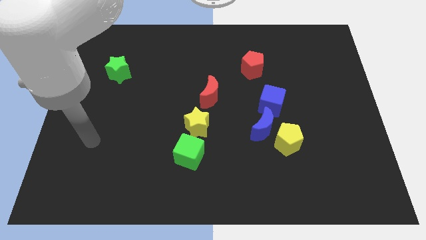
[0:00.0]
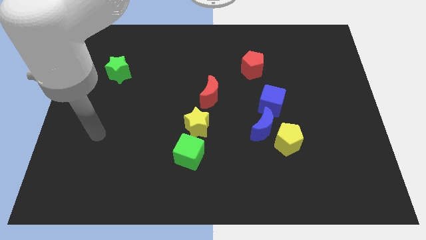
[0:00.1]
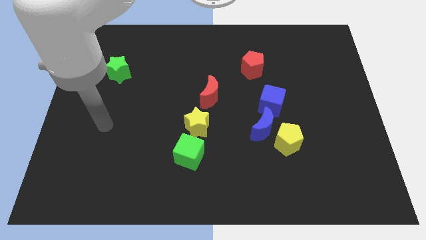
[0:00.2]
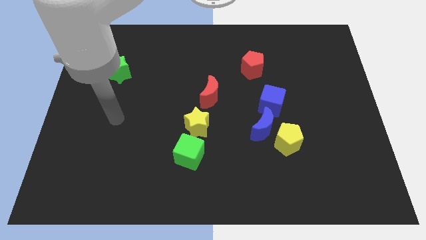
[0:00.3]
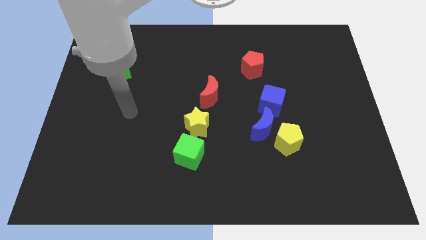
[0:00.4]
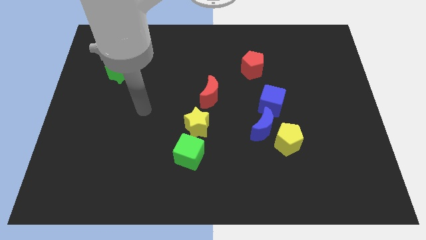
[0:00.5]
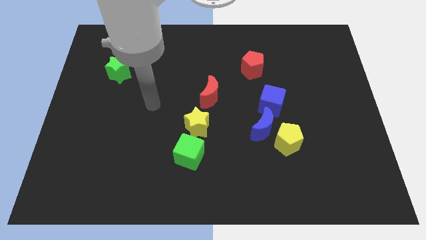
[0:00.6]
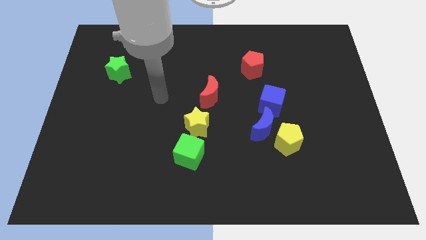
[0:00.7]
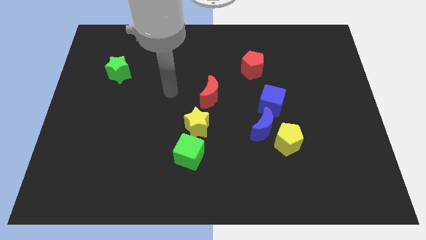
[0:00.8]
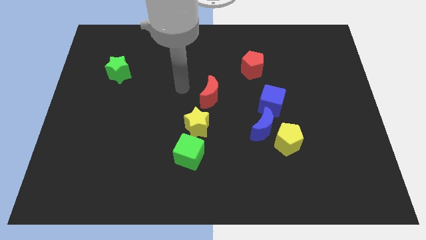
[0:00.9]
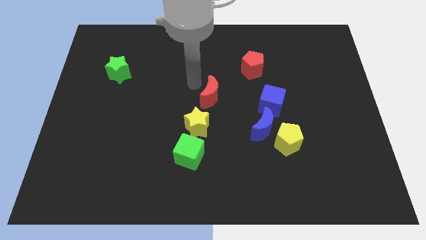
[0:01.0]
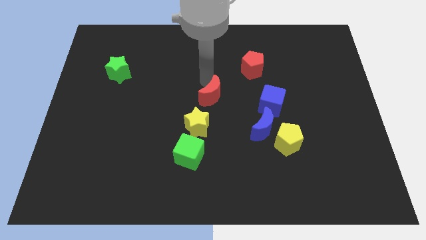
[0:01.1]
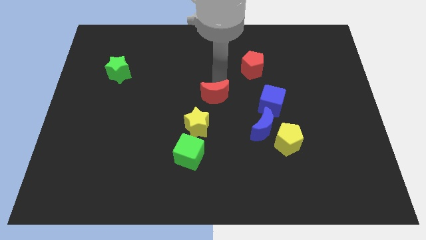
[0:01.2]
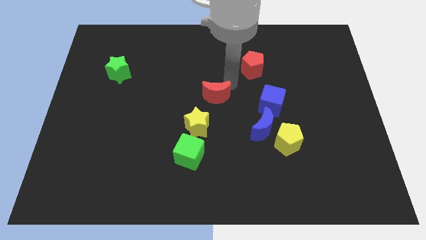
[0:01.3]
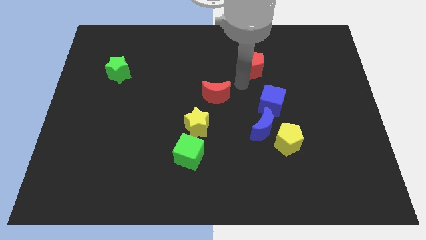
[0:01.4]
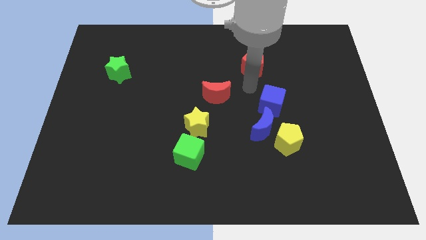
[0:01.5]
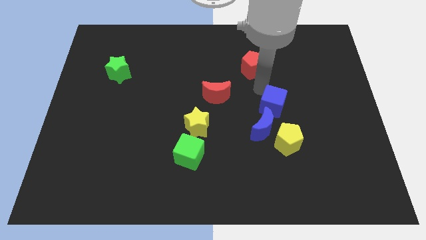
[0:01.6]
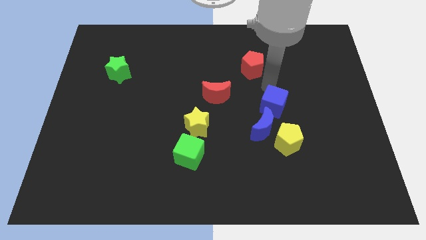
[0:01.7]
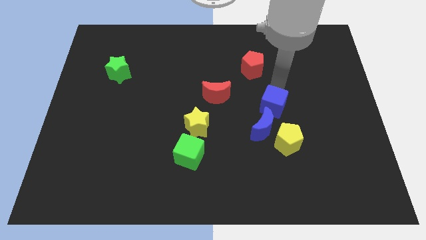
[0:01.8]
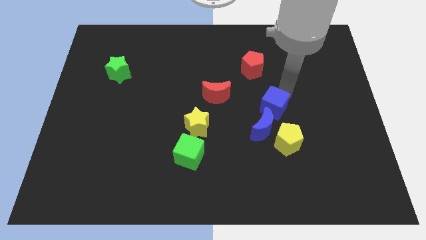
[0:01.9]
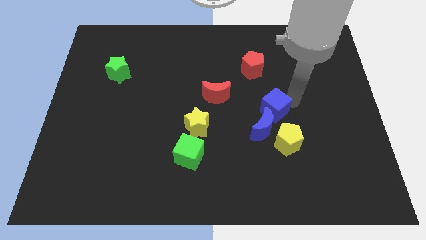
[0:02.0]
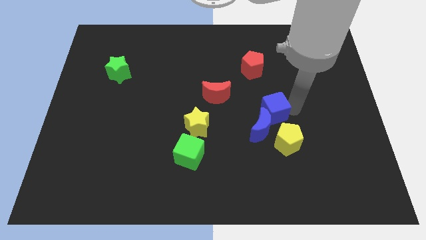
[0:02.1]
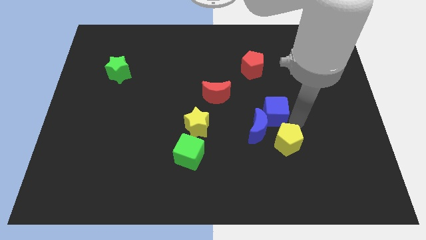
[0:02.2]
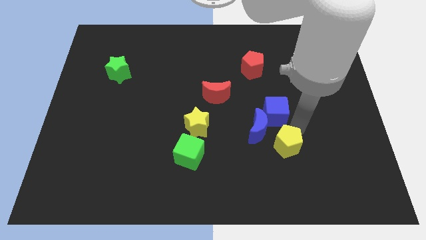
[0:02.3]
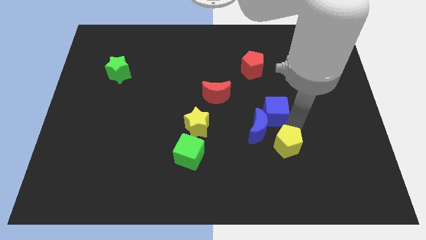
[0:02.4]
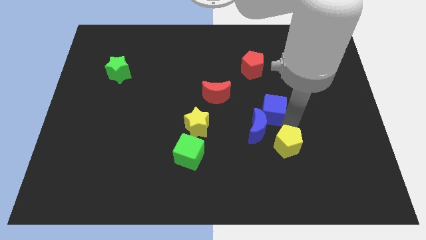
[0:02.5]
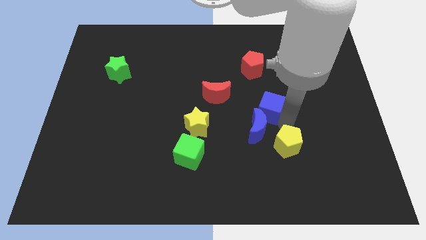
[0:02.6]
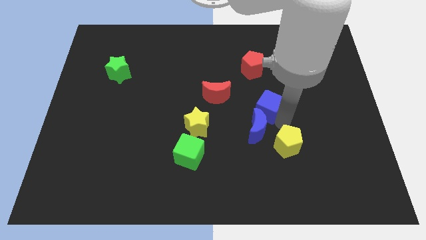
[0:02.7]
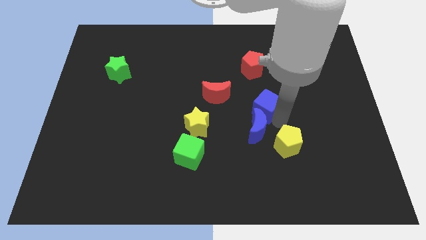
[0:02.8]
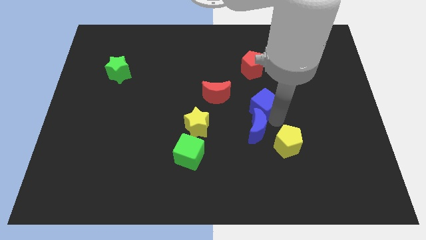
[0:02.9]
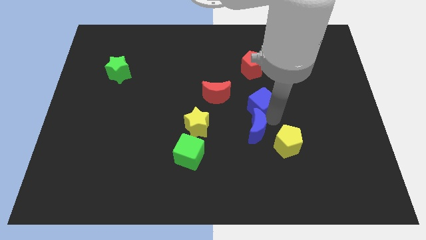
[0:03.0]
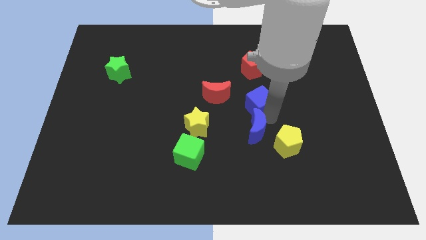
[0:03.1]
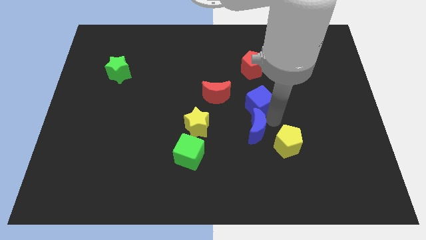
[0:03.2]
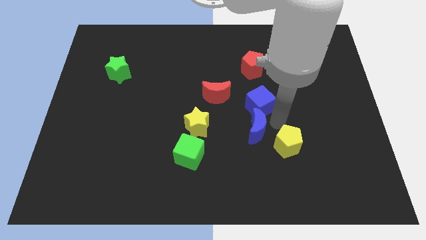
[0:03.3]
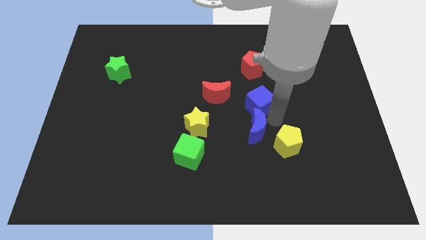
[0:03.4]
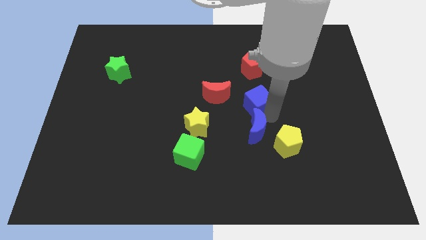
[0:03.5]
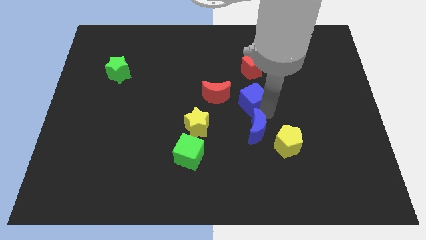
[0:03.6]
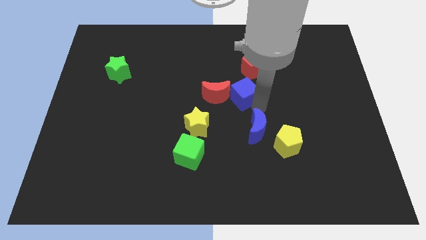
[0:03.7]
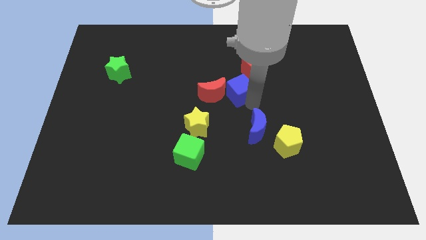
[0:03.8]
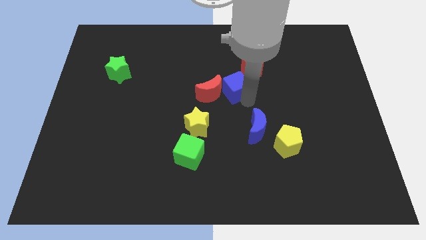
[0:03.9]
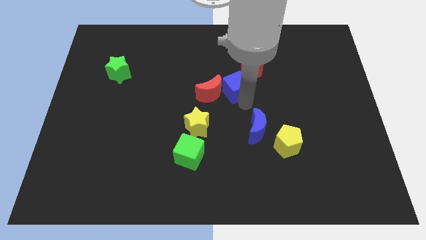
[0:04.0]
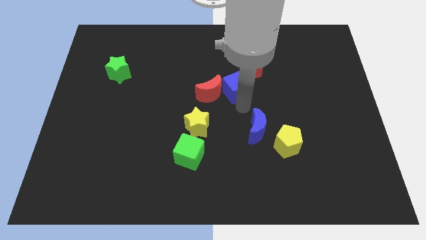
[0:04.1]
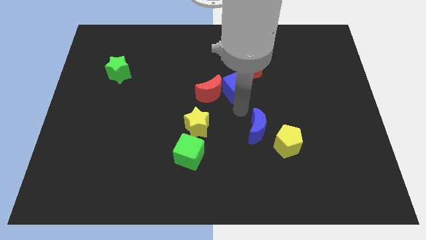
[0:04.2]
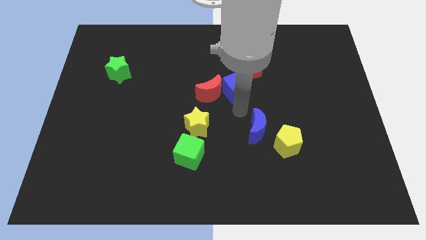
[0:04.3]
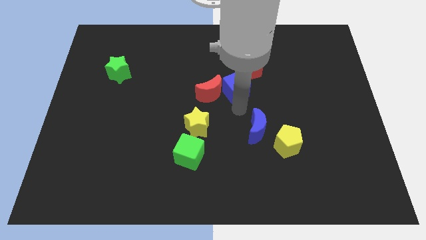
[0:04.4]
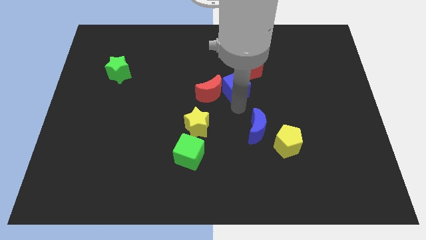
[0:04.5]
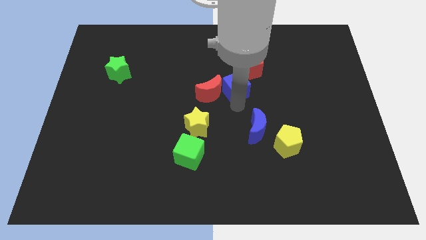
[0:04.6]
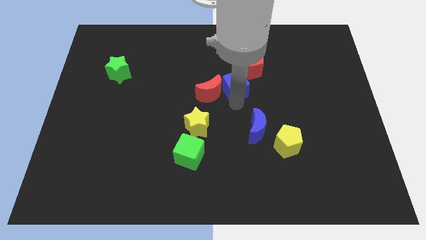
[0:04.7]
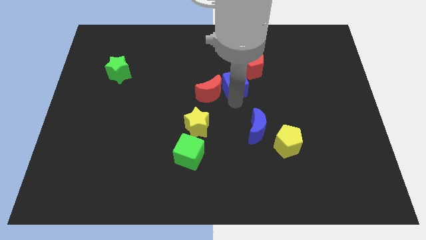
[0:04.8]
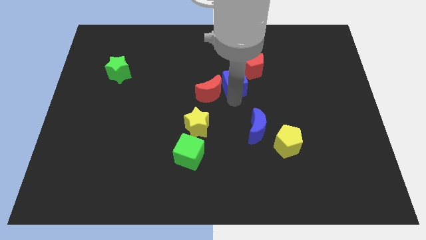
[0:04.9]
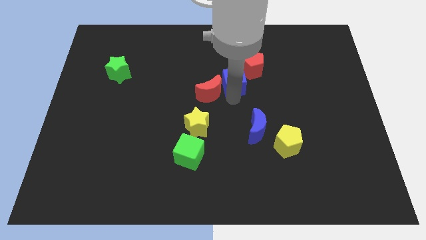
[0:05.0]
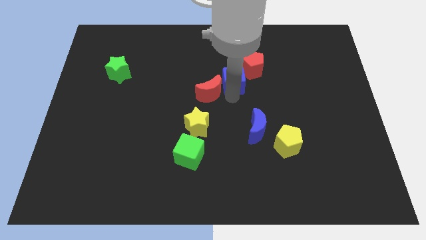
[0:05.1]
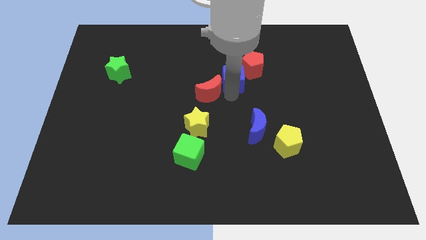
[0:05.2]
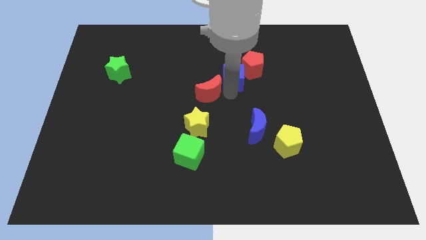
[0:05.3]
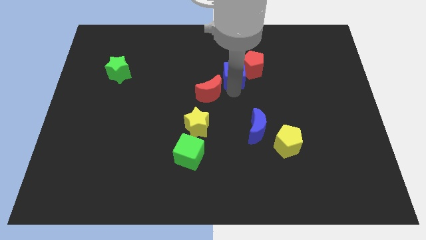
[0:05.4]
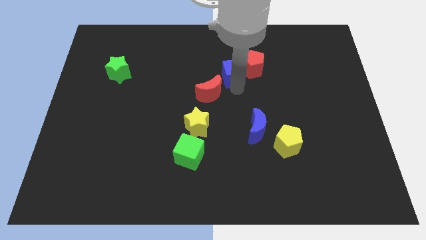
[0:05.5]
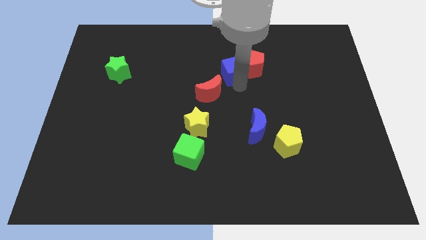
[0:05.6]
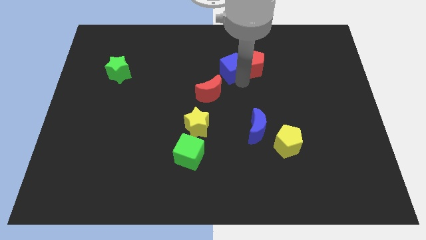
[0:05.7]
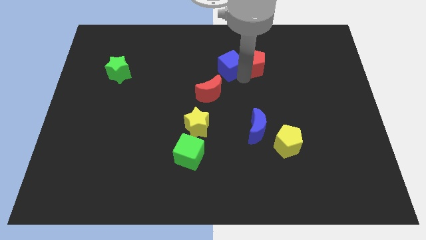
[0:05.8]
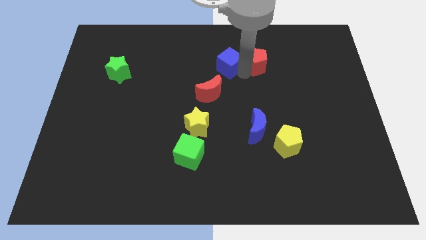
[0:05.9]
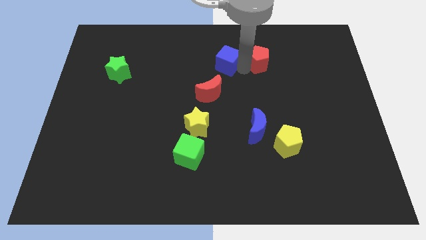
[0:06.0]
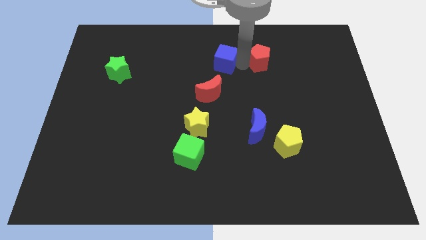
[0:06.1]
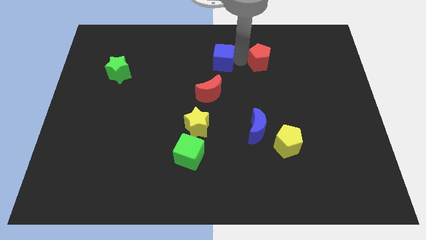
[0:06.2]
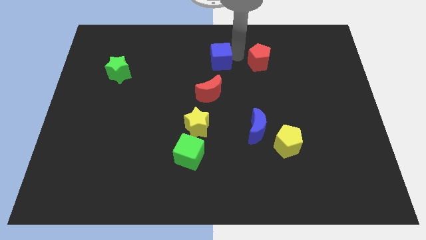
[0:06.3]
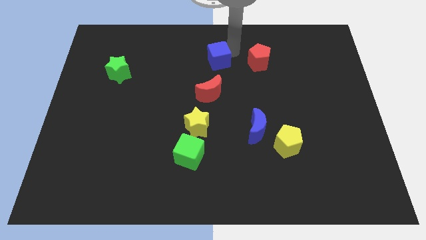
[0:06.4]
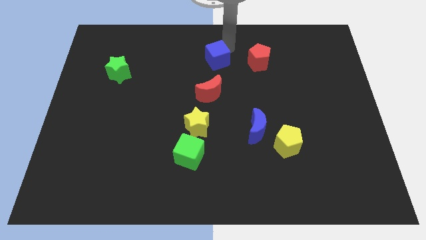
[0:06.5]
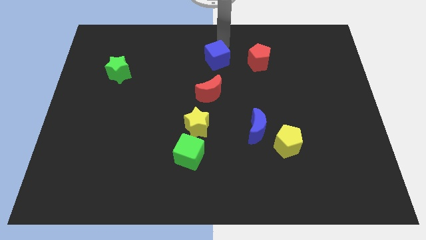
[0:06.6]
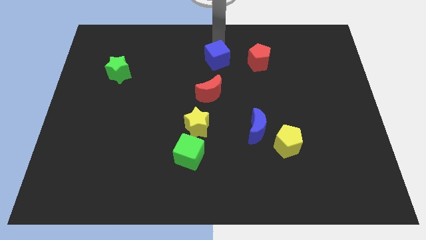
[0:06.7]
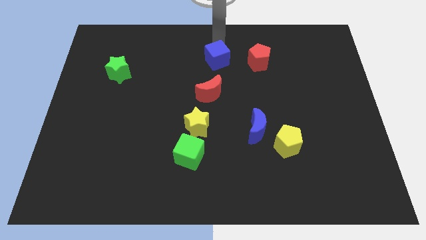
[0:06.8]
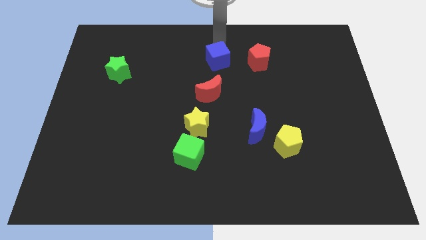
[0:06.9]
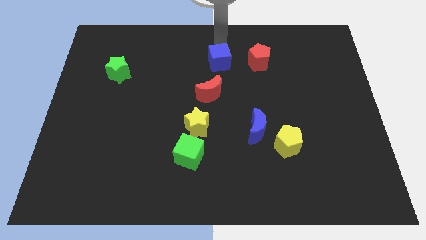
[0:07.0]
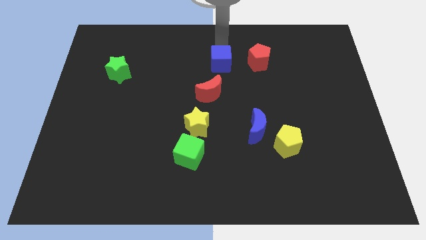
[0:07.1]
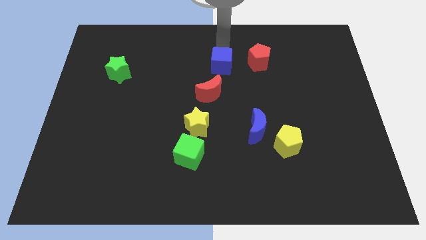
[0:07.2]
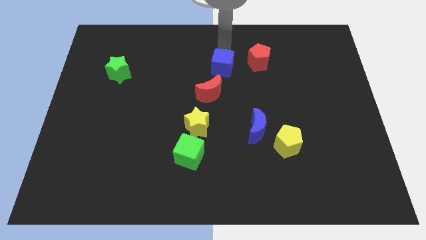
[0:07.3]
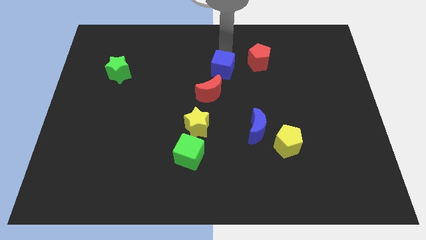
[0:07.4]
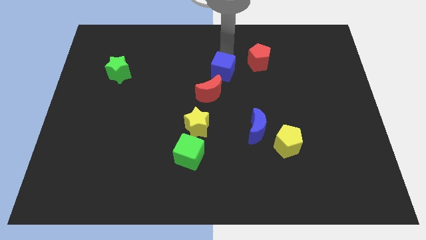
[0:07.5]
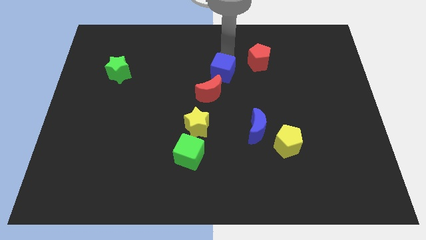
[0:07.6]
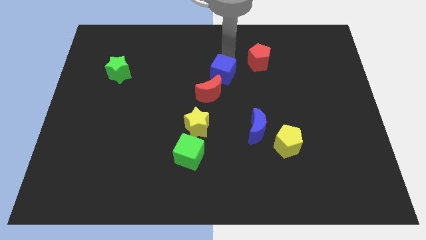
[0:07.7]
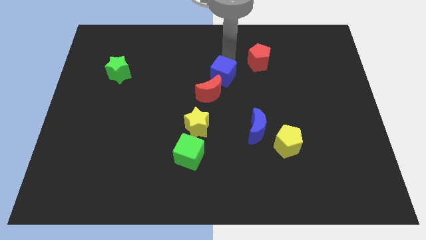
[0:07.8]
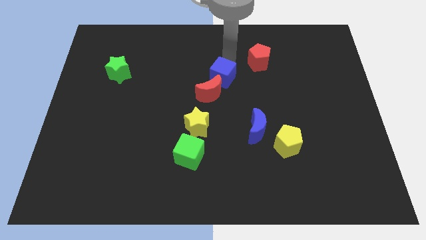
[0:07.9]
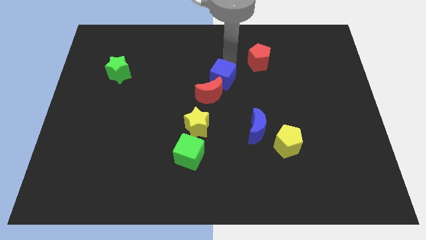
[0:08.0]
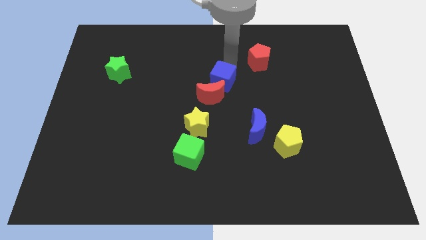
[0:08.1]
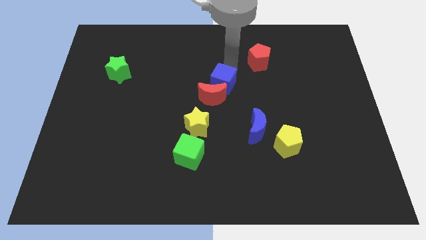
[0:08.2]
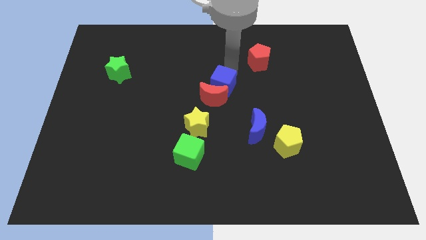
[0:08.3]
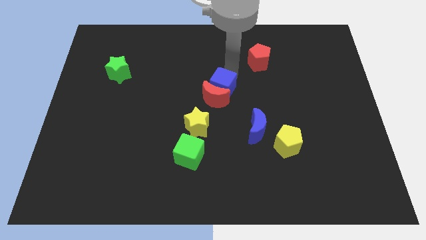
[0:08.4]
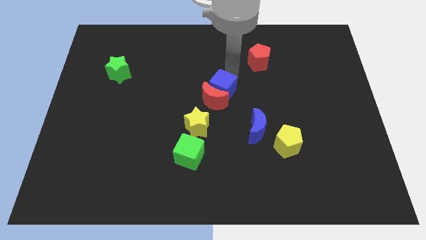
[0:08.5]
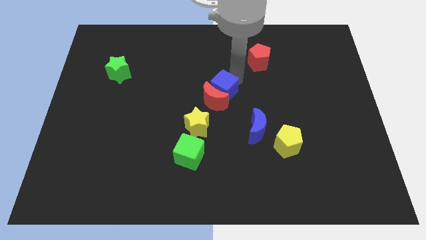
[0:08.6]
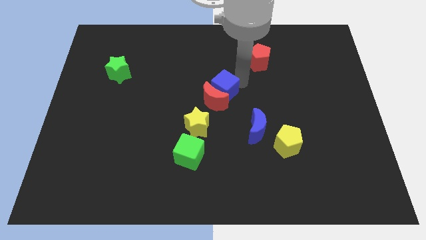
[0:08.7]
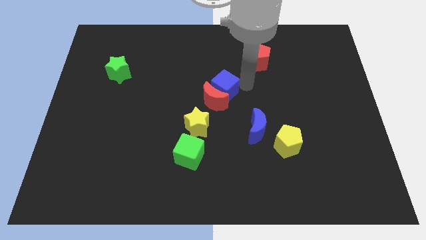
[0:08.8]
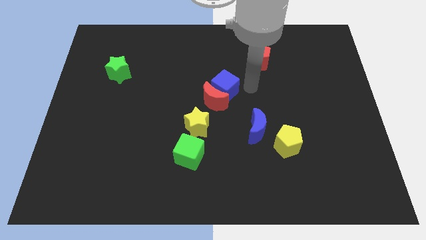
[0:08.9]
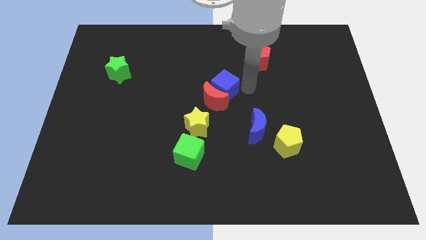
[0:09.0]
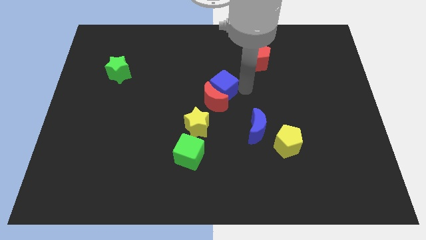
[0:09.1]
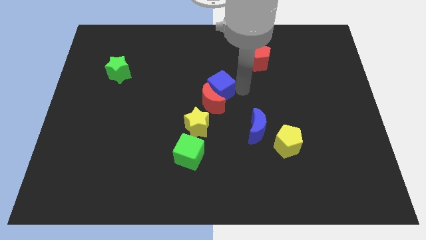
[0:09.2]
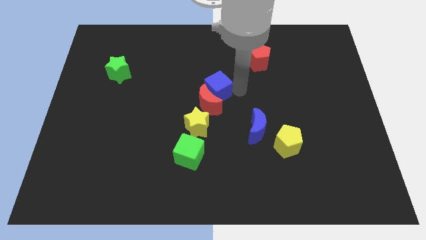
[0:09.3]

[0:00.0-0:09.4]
move the blue cube to the top of the yellow star
